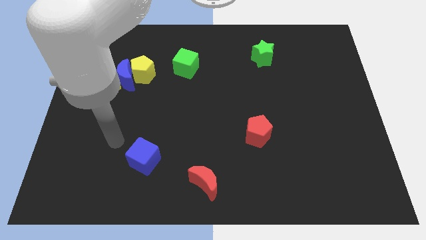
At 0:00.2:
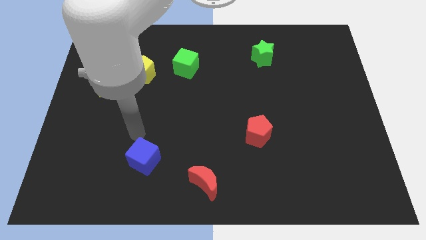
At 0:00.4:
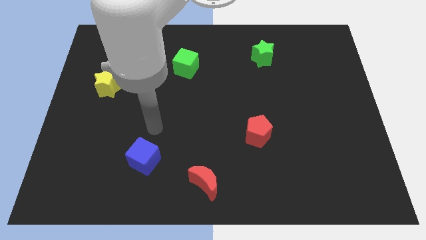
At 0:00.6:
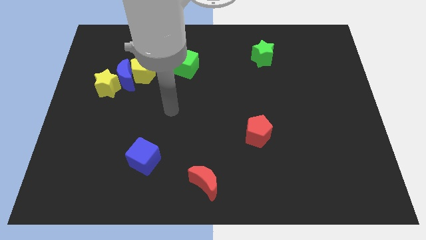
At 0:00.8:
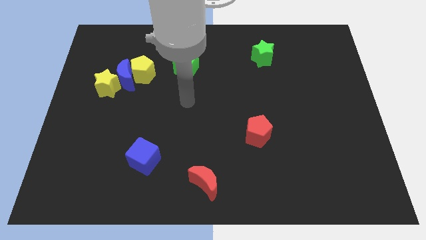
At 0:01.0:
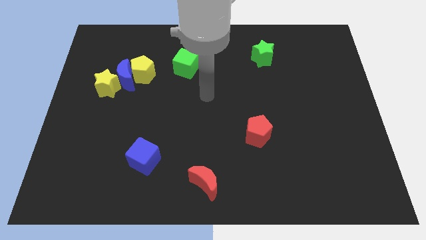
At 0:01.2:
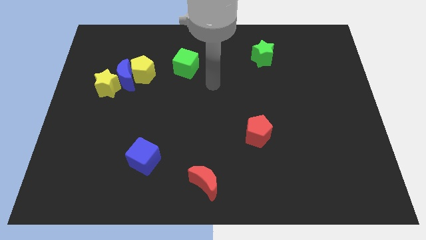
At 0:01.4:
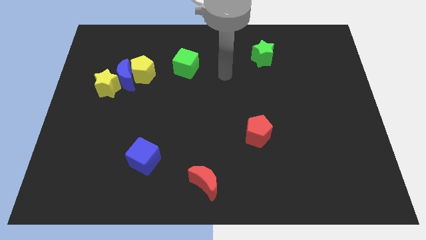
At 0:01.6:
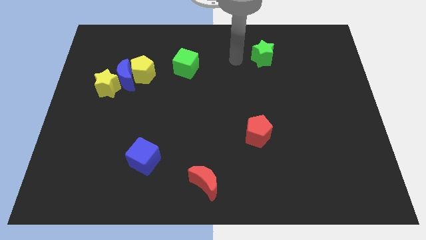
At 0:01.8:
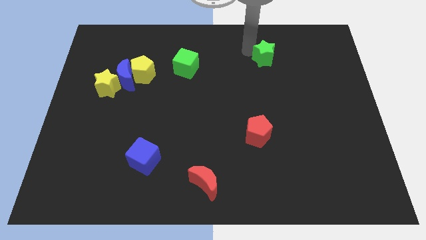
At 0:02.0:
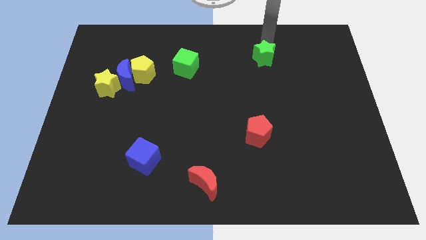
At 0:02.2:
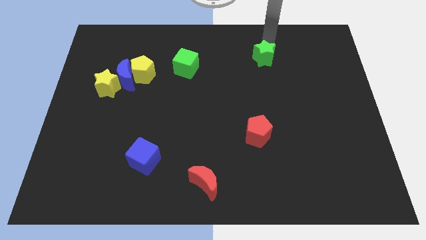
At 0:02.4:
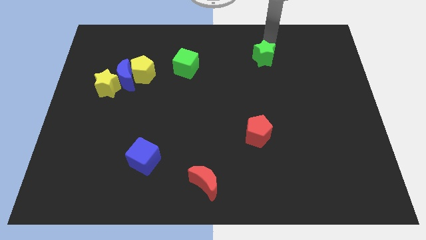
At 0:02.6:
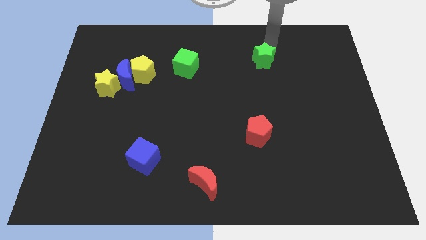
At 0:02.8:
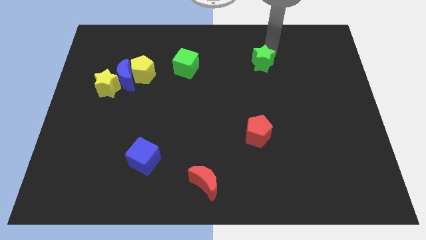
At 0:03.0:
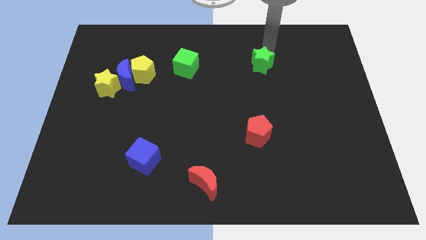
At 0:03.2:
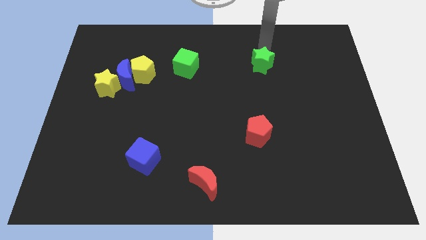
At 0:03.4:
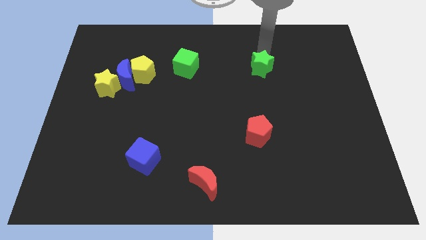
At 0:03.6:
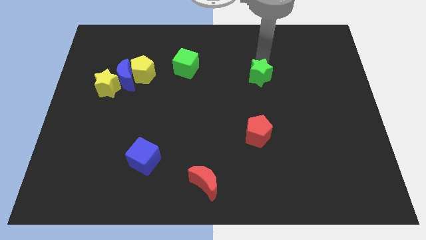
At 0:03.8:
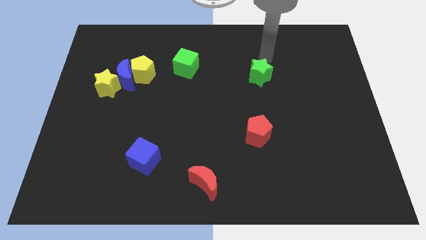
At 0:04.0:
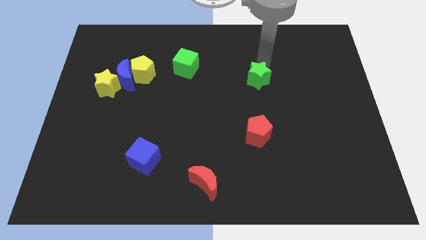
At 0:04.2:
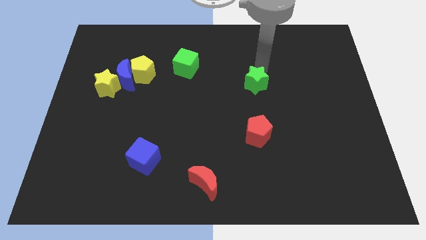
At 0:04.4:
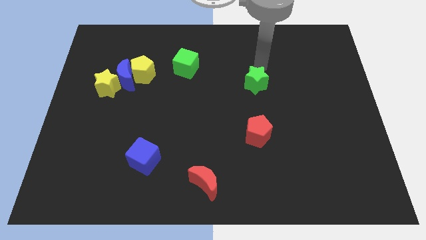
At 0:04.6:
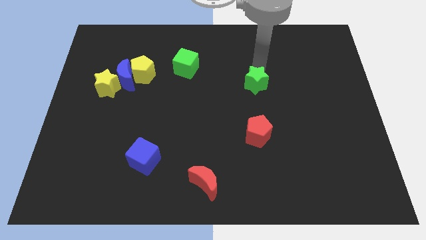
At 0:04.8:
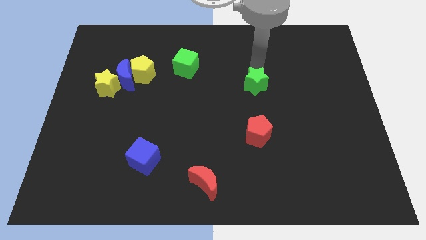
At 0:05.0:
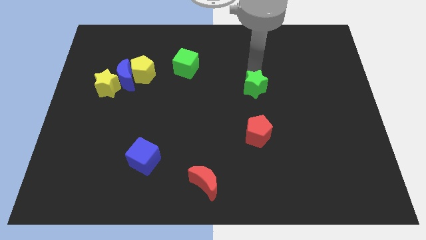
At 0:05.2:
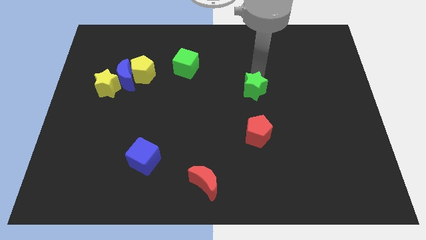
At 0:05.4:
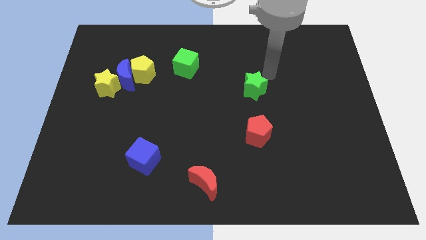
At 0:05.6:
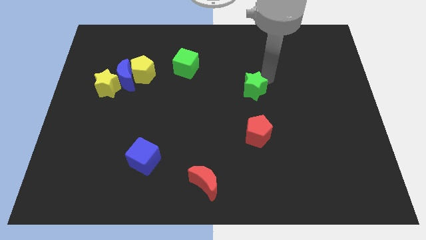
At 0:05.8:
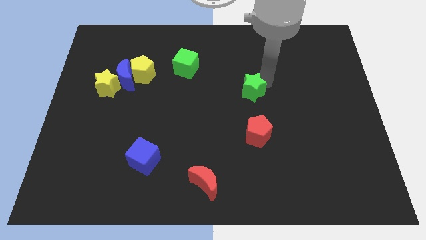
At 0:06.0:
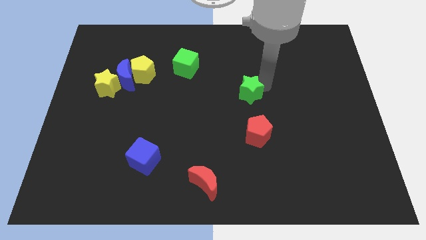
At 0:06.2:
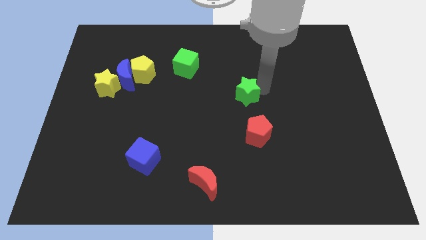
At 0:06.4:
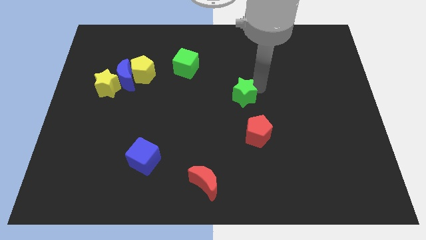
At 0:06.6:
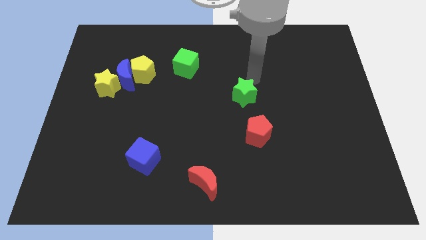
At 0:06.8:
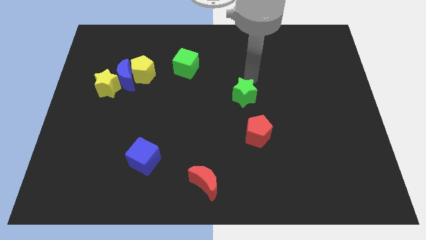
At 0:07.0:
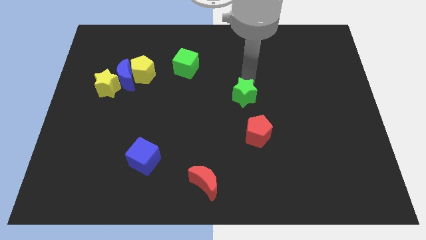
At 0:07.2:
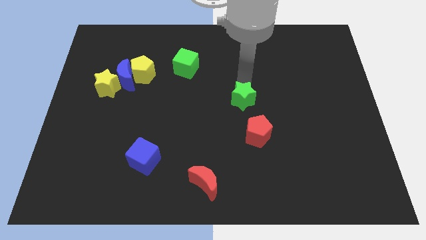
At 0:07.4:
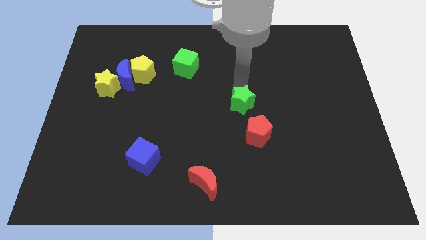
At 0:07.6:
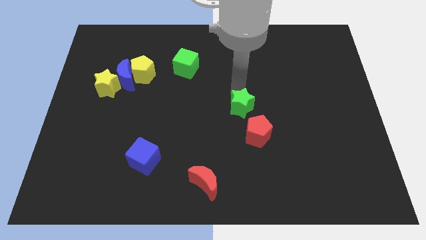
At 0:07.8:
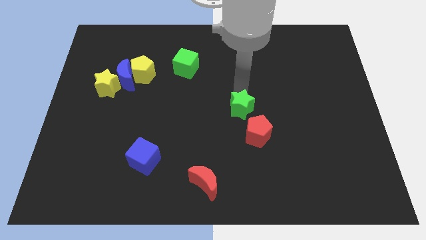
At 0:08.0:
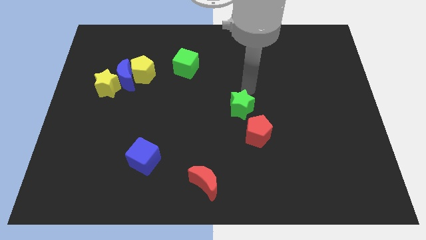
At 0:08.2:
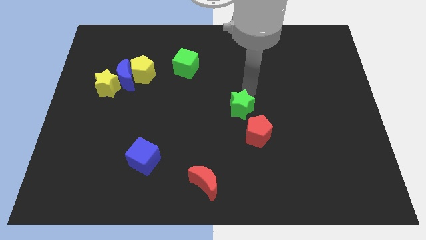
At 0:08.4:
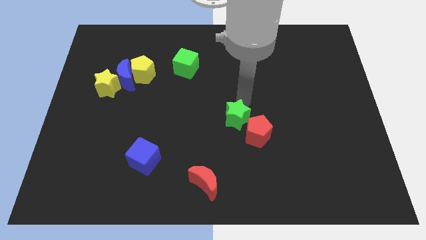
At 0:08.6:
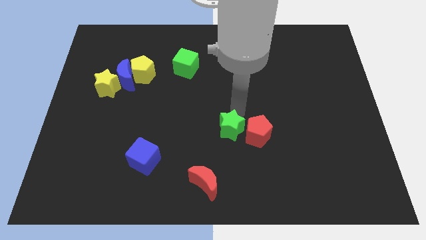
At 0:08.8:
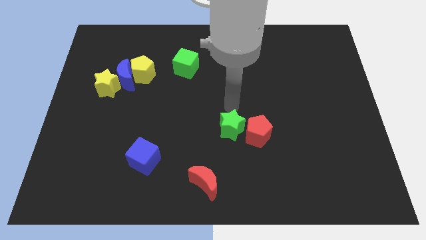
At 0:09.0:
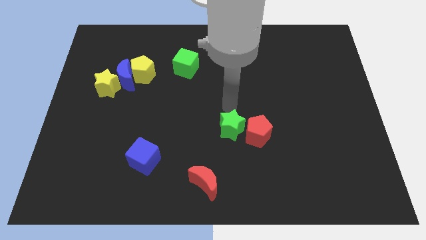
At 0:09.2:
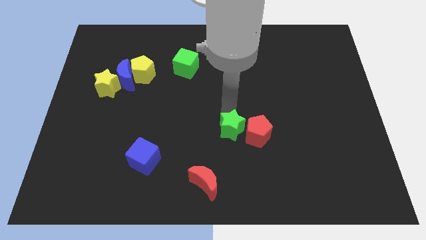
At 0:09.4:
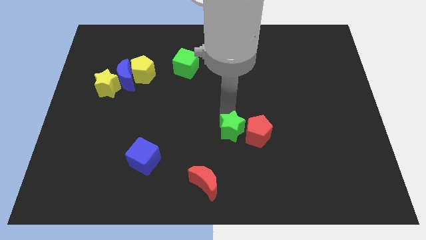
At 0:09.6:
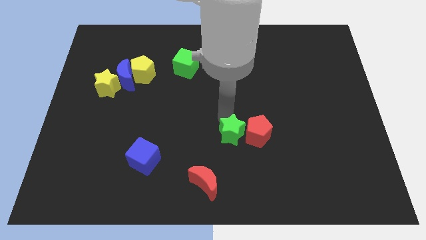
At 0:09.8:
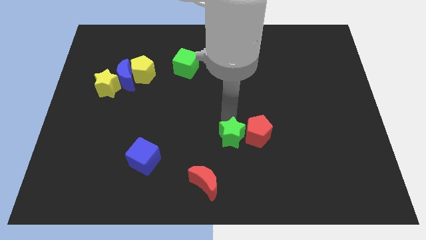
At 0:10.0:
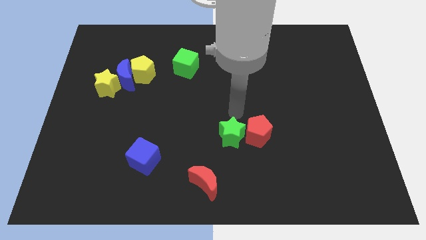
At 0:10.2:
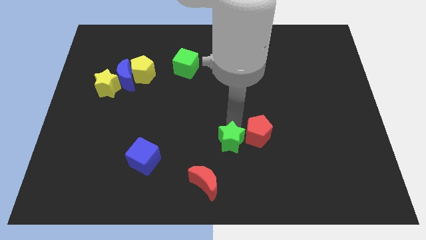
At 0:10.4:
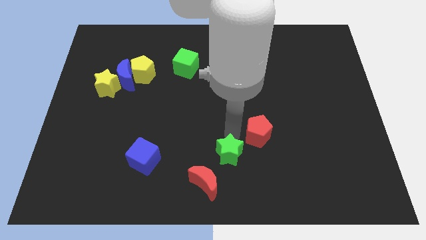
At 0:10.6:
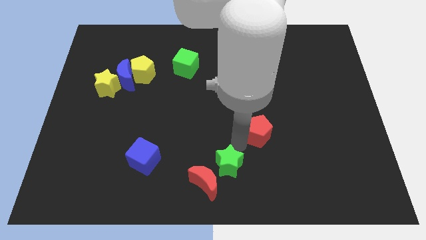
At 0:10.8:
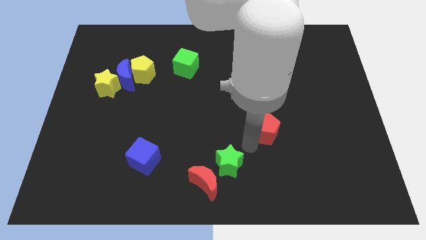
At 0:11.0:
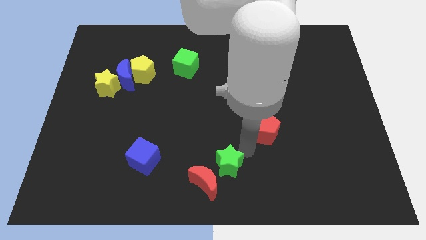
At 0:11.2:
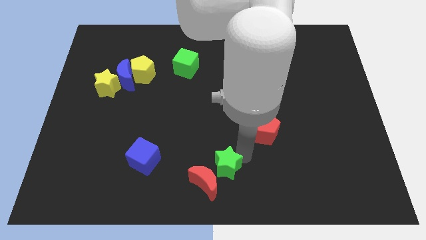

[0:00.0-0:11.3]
push the green star to the red moon

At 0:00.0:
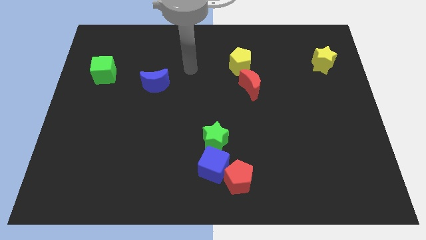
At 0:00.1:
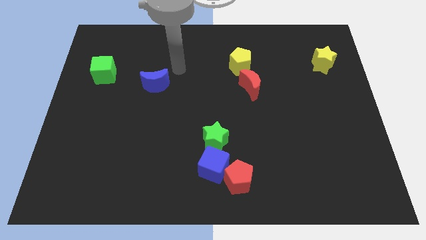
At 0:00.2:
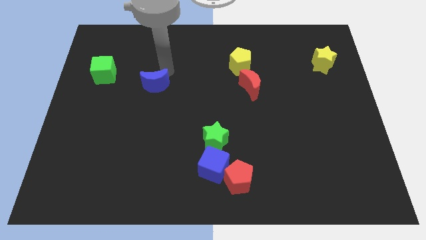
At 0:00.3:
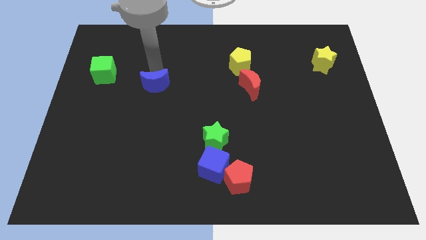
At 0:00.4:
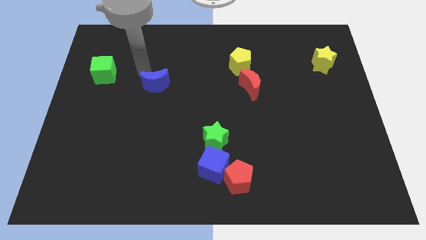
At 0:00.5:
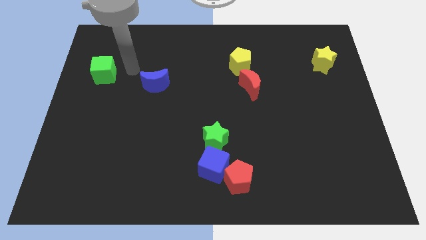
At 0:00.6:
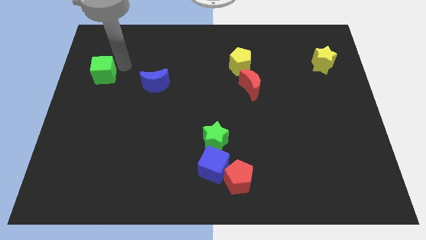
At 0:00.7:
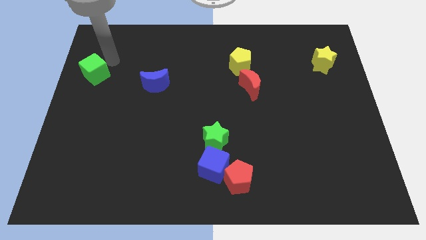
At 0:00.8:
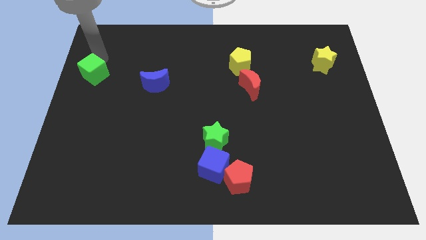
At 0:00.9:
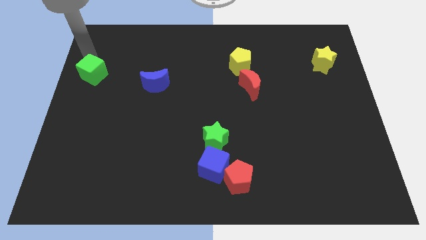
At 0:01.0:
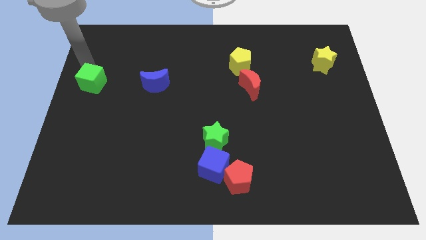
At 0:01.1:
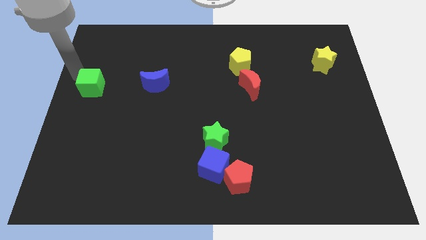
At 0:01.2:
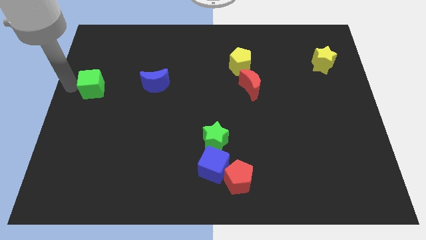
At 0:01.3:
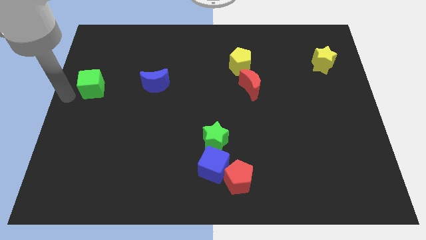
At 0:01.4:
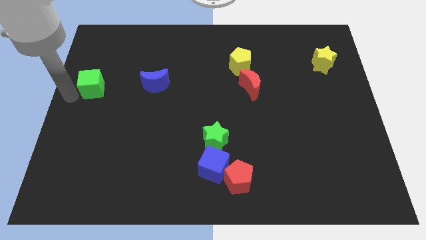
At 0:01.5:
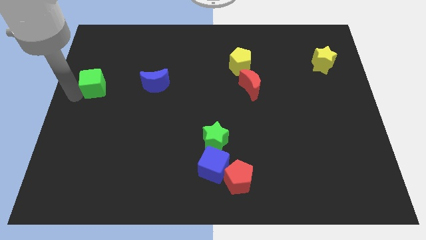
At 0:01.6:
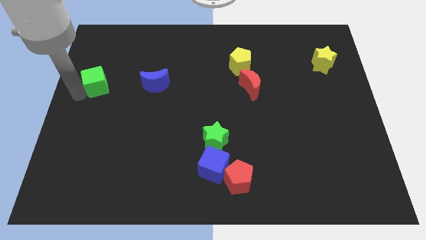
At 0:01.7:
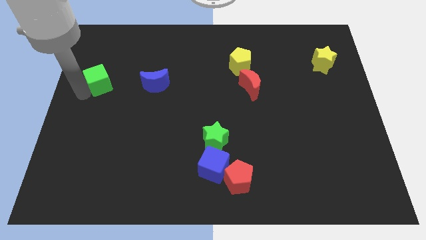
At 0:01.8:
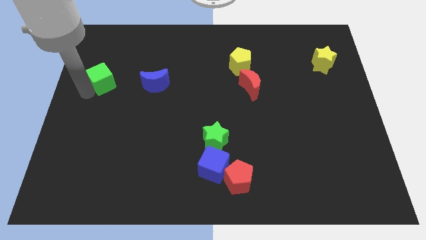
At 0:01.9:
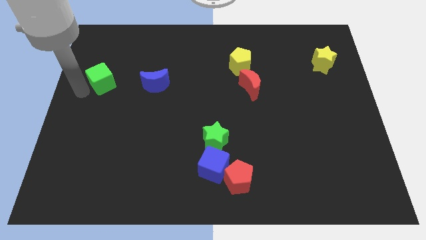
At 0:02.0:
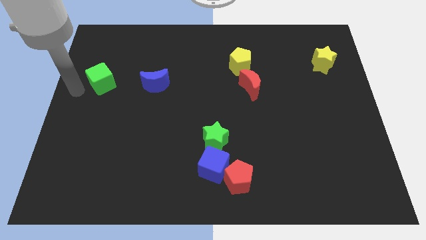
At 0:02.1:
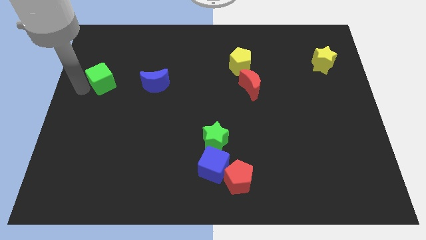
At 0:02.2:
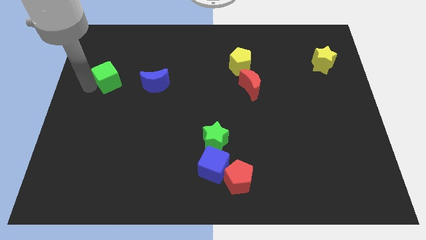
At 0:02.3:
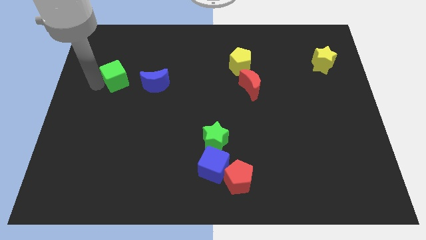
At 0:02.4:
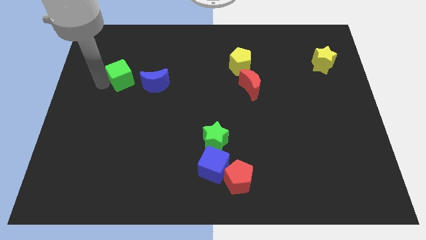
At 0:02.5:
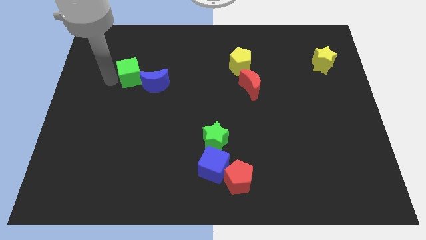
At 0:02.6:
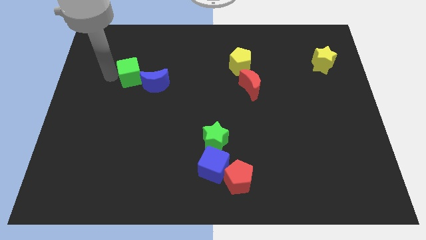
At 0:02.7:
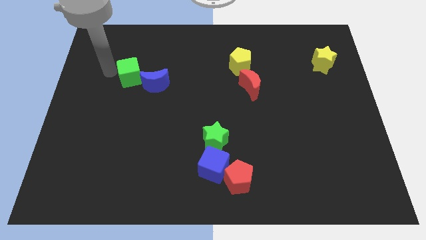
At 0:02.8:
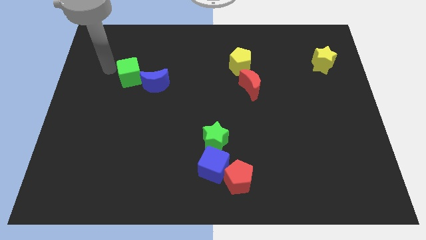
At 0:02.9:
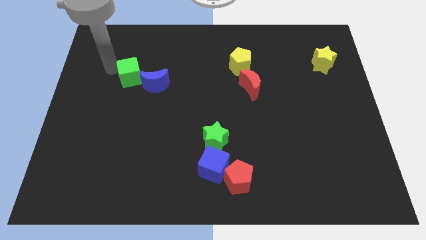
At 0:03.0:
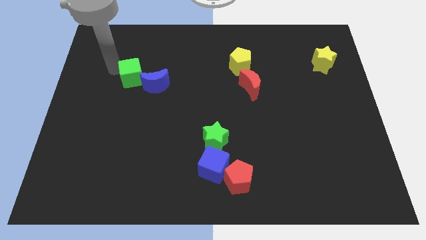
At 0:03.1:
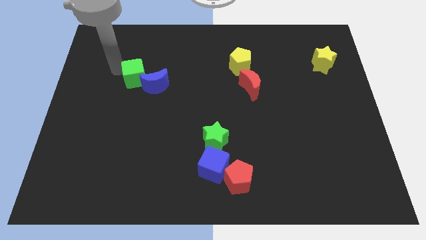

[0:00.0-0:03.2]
push the green cube close to the blue moon
